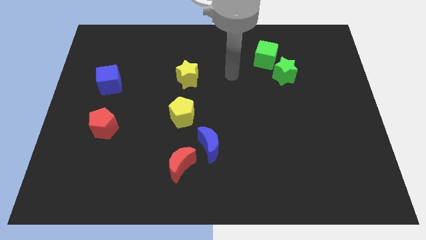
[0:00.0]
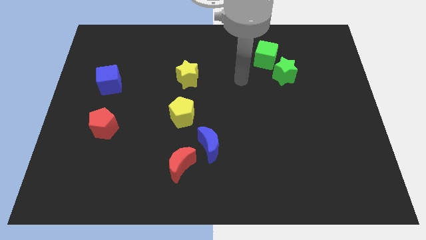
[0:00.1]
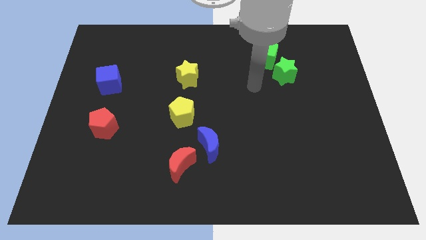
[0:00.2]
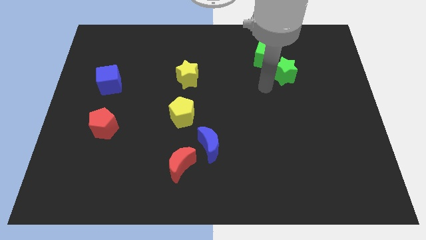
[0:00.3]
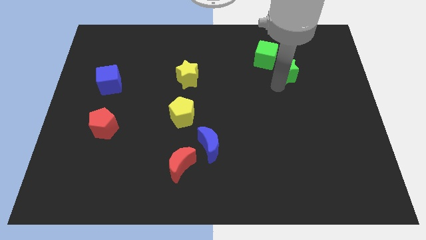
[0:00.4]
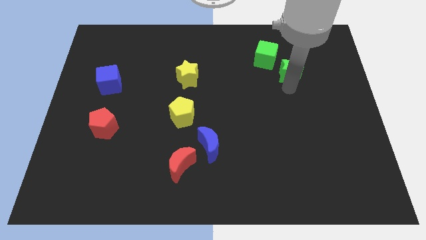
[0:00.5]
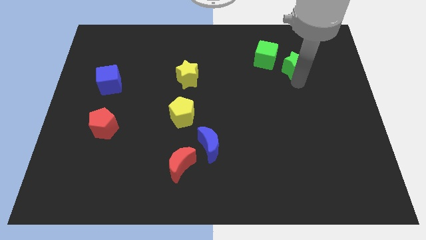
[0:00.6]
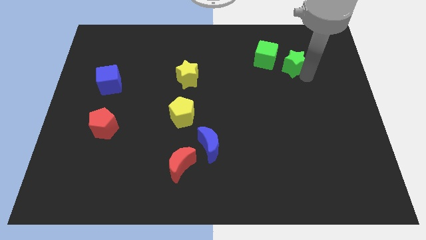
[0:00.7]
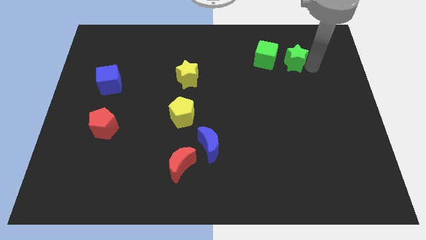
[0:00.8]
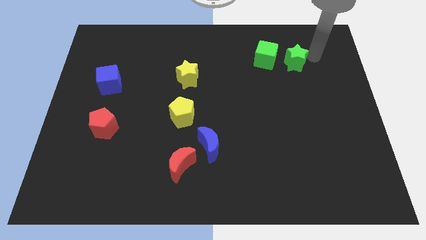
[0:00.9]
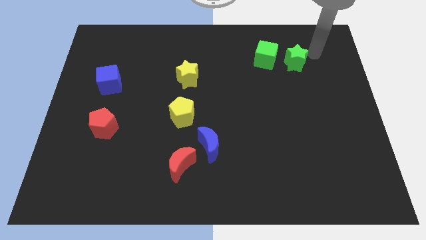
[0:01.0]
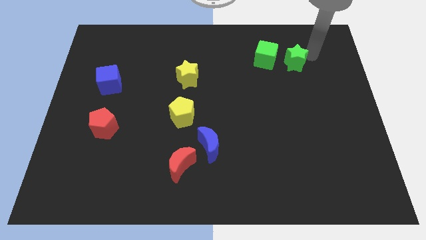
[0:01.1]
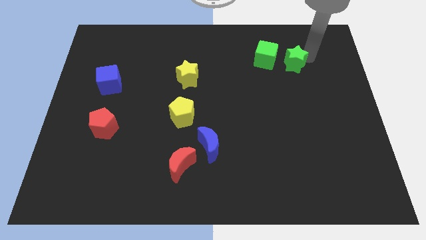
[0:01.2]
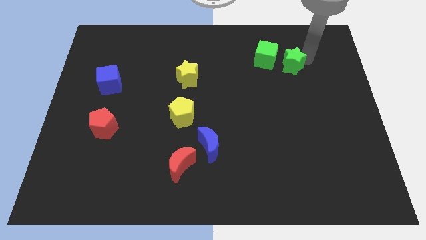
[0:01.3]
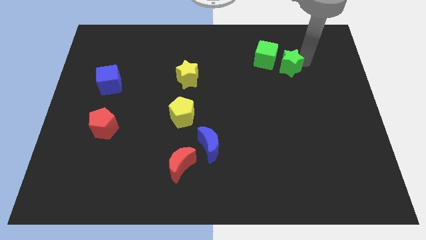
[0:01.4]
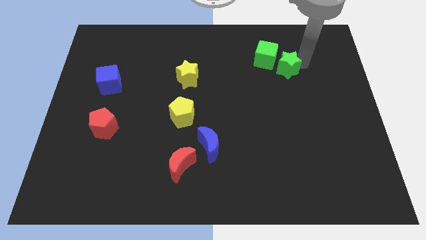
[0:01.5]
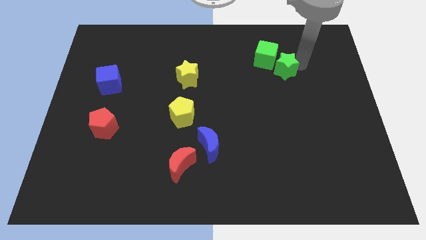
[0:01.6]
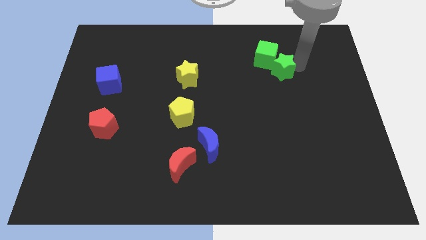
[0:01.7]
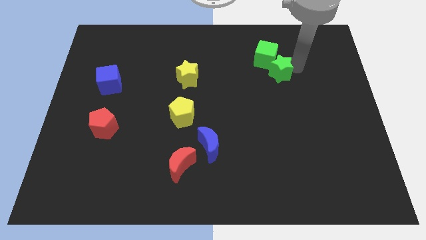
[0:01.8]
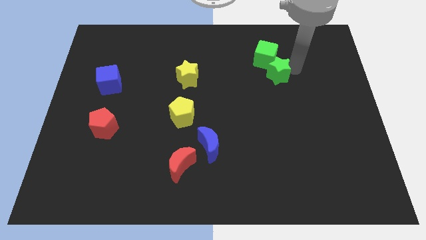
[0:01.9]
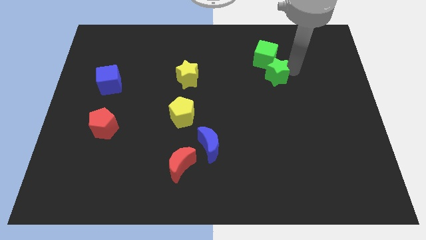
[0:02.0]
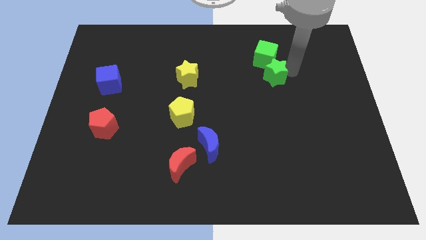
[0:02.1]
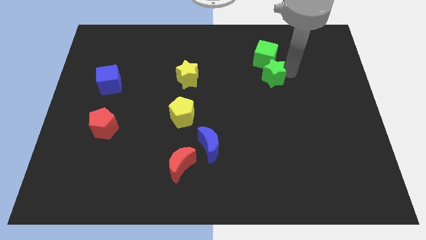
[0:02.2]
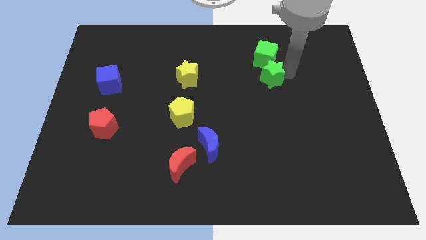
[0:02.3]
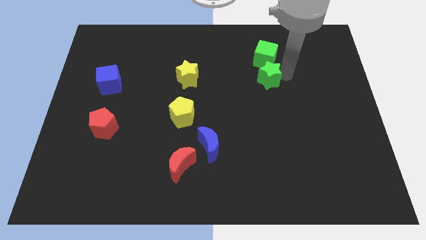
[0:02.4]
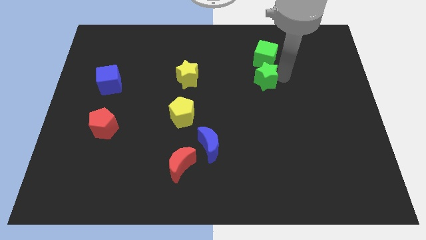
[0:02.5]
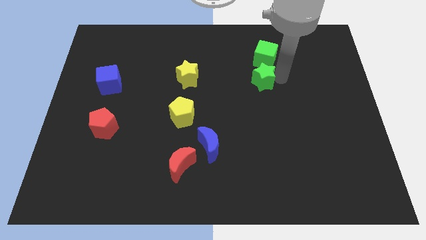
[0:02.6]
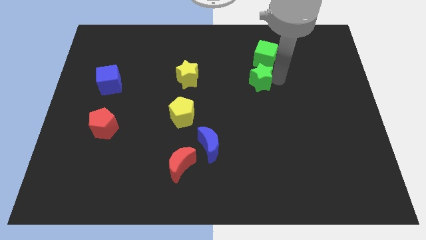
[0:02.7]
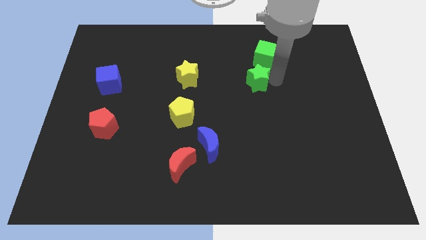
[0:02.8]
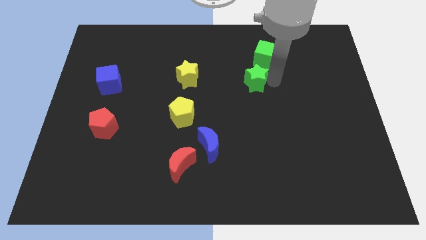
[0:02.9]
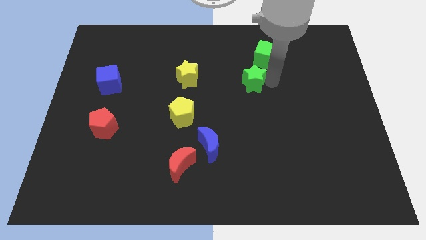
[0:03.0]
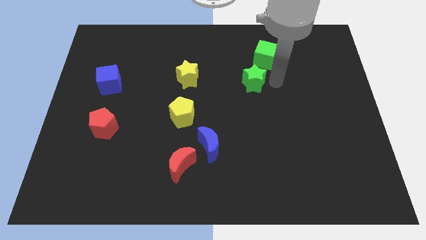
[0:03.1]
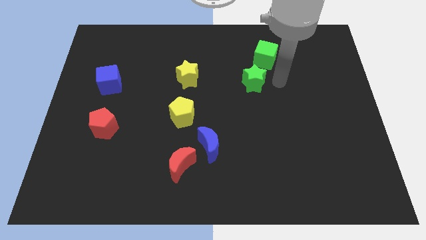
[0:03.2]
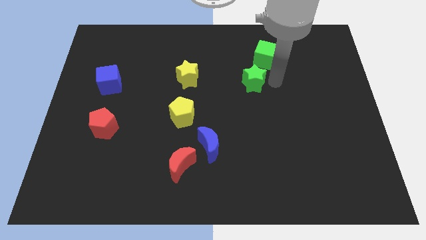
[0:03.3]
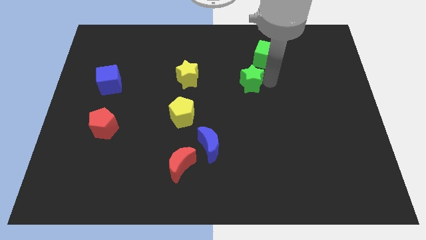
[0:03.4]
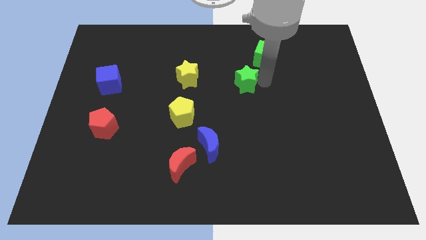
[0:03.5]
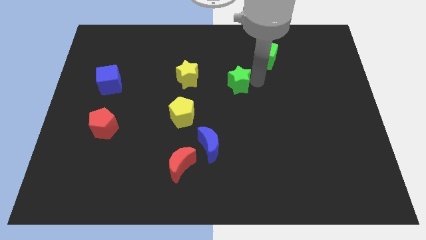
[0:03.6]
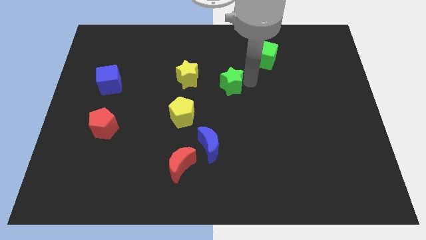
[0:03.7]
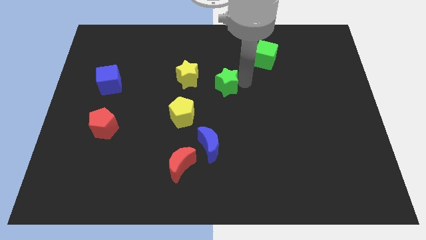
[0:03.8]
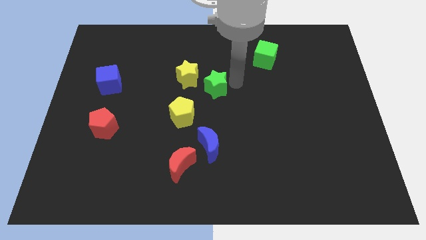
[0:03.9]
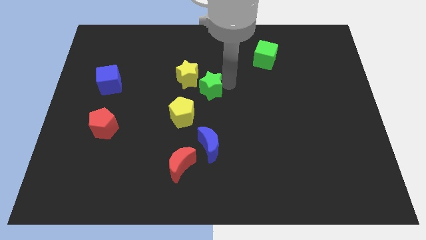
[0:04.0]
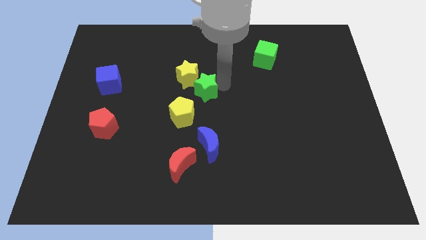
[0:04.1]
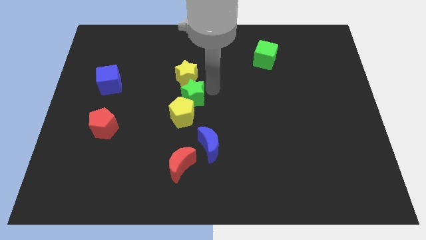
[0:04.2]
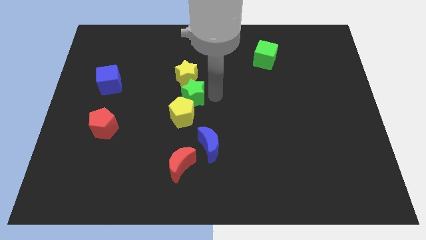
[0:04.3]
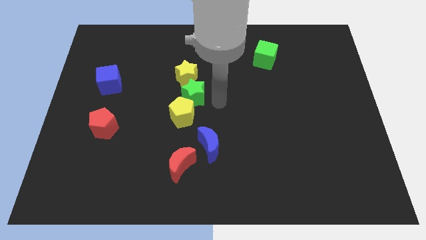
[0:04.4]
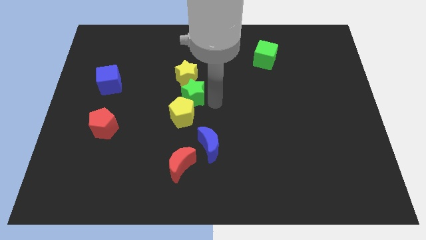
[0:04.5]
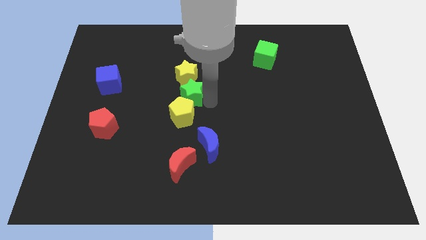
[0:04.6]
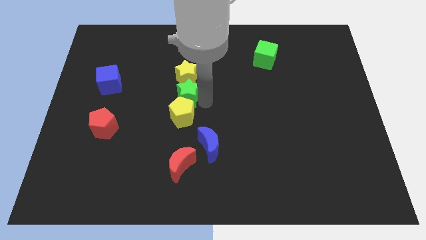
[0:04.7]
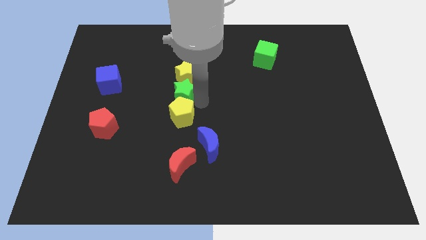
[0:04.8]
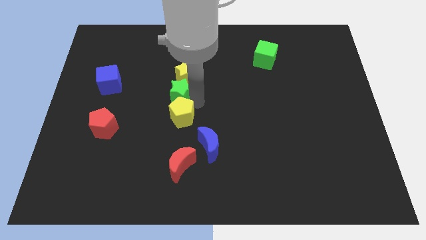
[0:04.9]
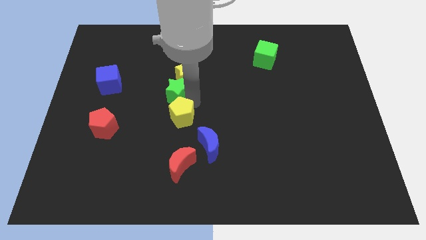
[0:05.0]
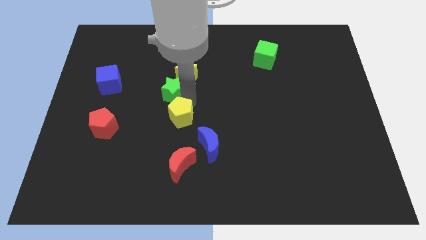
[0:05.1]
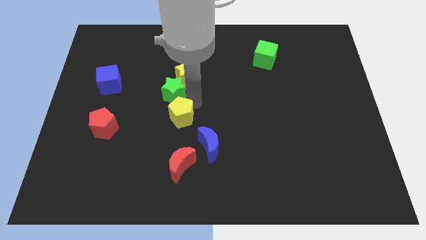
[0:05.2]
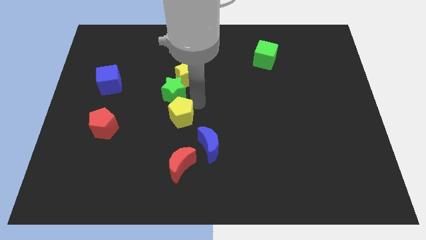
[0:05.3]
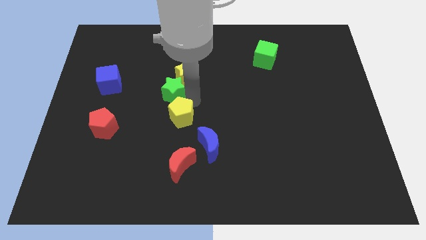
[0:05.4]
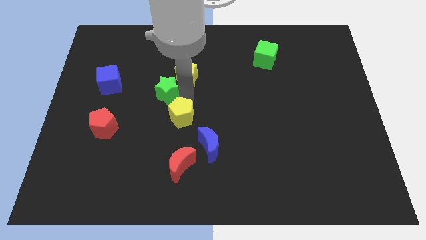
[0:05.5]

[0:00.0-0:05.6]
slide the green star just right of the blue cube

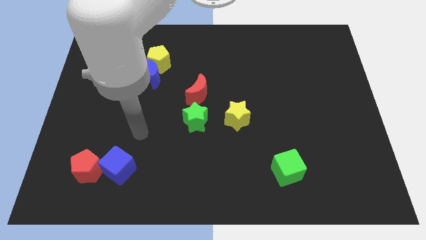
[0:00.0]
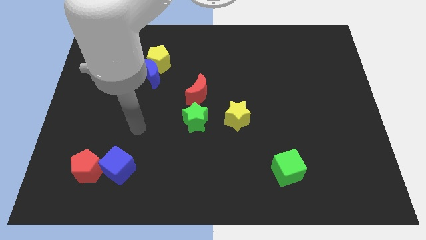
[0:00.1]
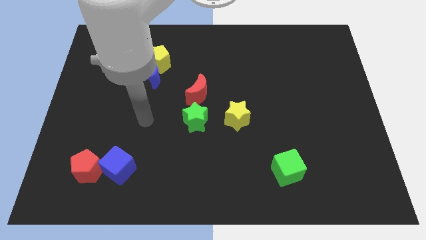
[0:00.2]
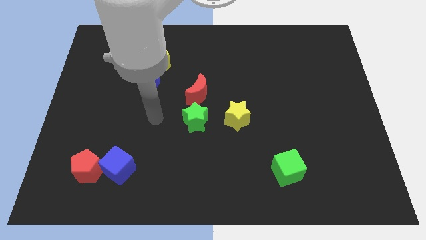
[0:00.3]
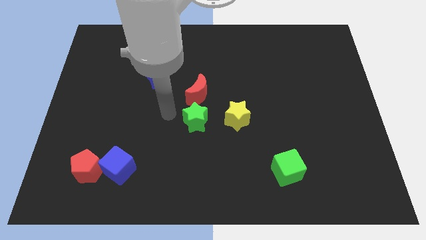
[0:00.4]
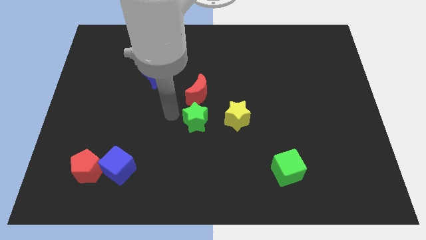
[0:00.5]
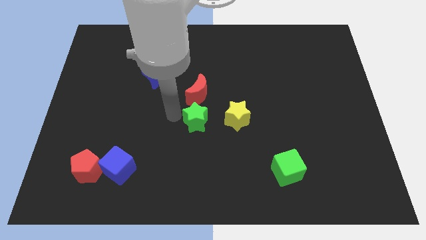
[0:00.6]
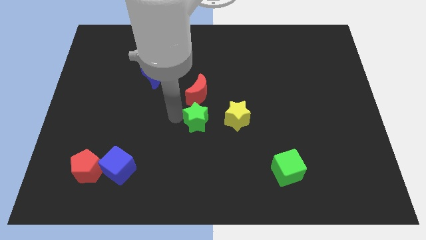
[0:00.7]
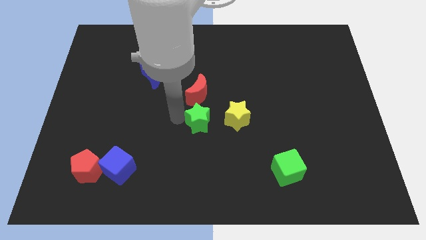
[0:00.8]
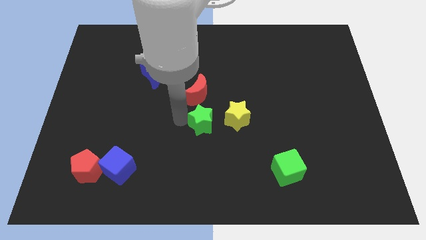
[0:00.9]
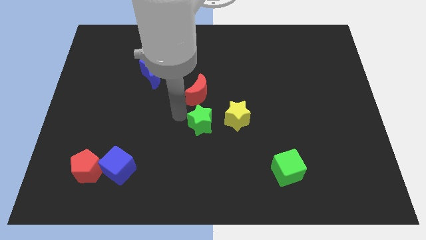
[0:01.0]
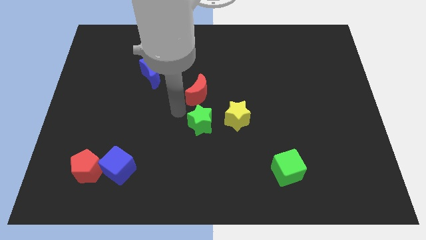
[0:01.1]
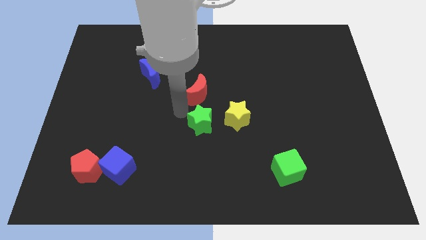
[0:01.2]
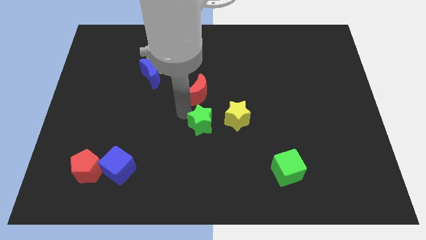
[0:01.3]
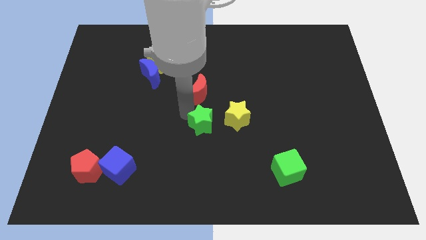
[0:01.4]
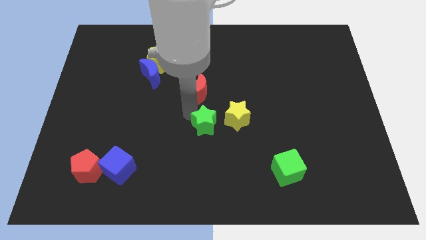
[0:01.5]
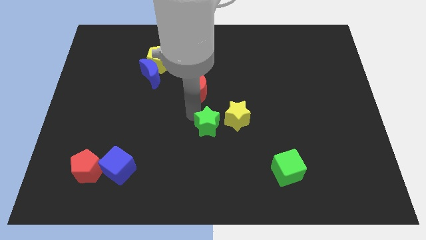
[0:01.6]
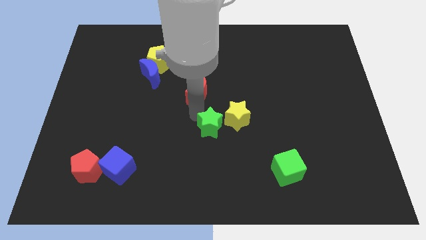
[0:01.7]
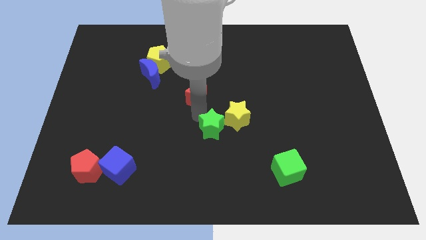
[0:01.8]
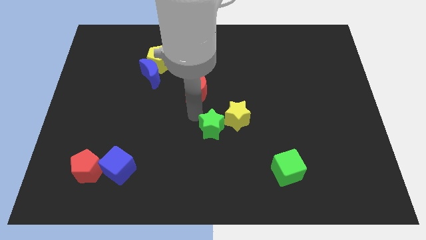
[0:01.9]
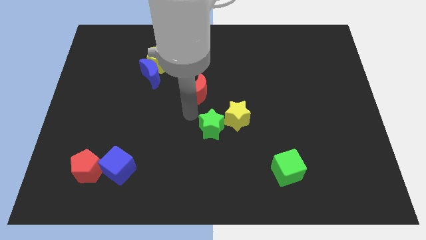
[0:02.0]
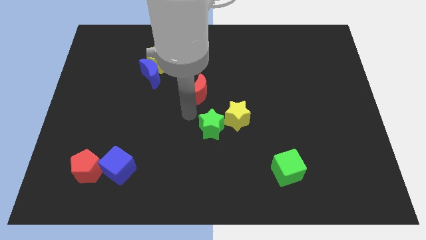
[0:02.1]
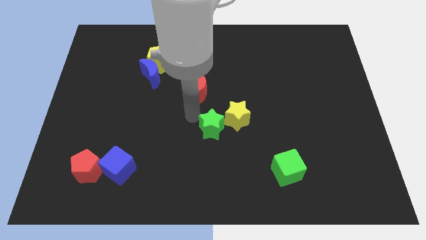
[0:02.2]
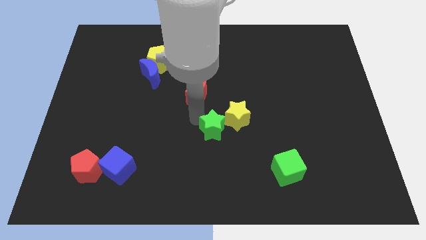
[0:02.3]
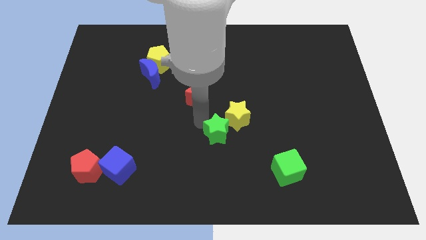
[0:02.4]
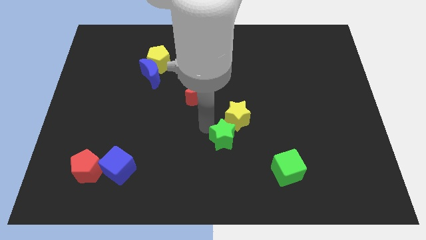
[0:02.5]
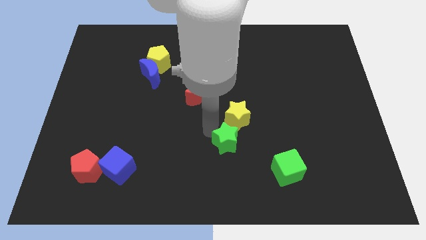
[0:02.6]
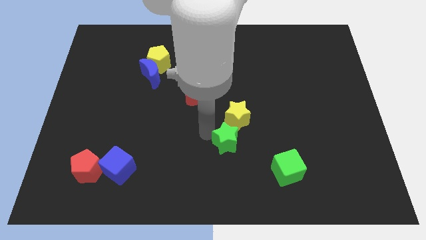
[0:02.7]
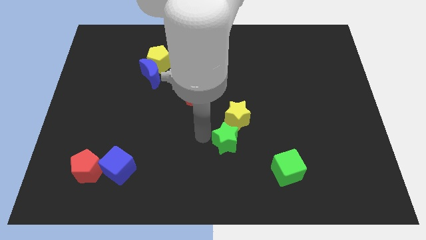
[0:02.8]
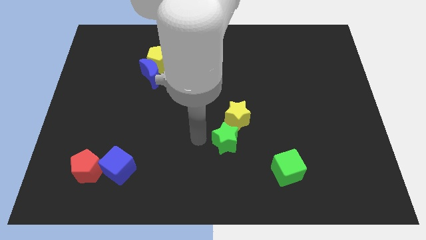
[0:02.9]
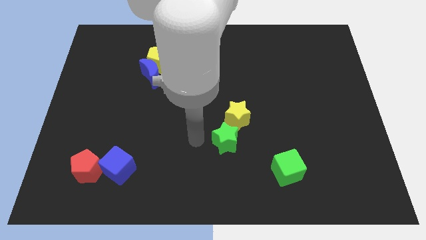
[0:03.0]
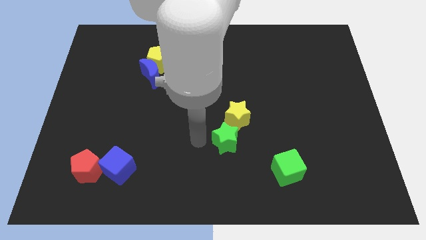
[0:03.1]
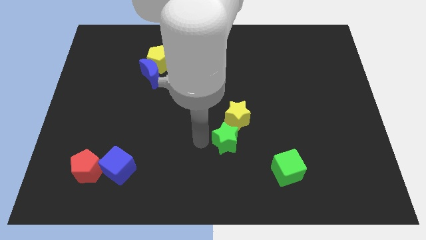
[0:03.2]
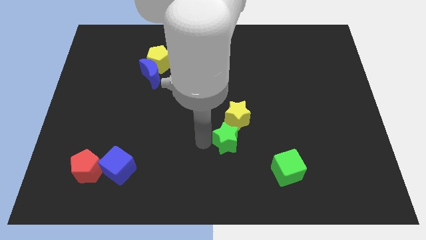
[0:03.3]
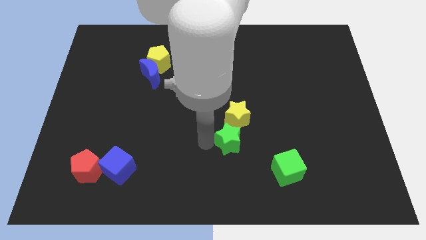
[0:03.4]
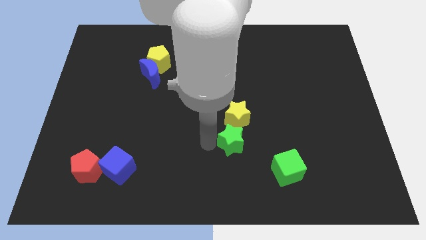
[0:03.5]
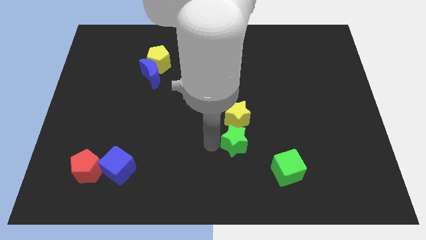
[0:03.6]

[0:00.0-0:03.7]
put the green star diagonally up and to the left of the green cube
